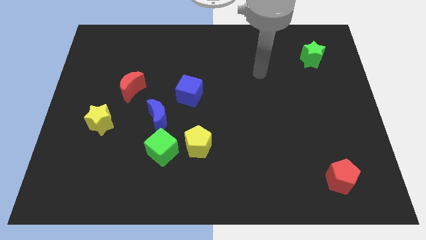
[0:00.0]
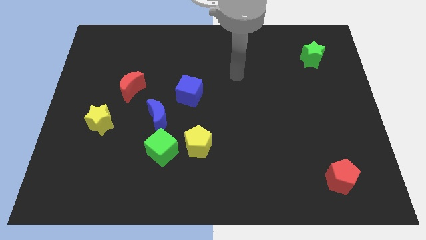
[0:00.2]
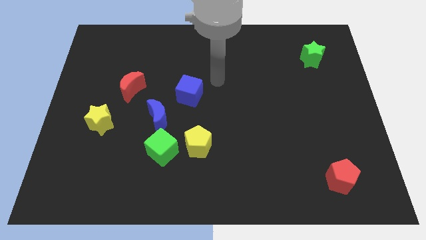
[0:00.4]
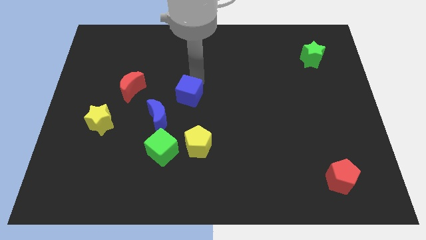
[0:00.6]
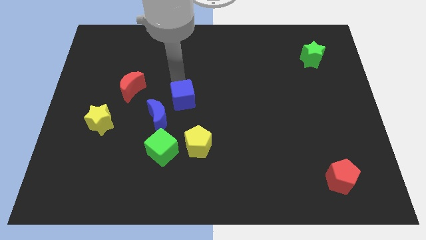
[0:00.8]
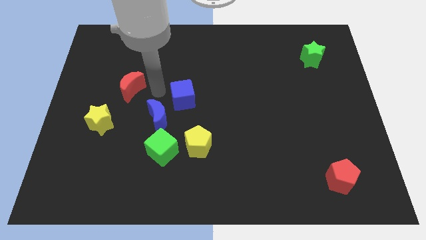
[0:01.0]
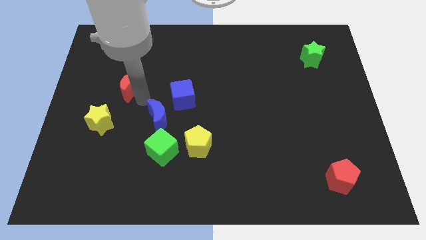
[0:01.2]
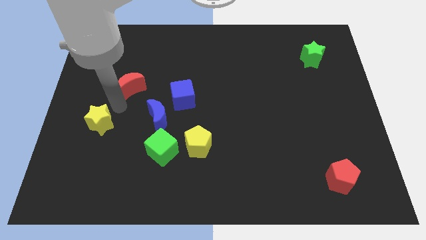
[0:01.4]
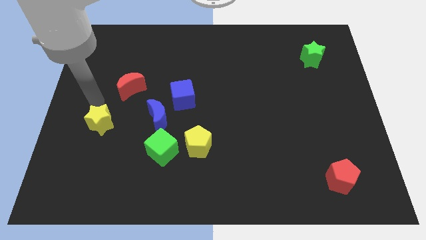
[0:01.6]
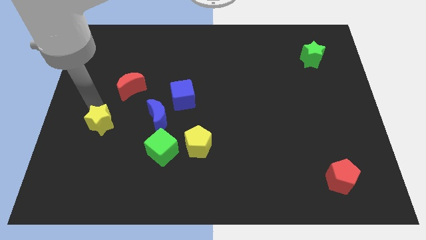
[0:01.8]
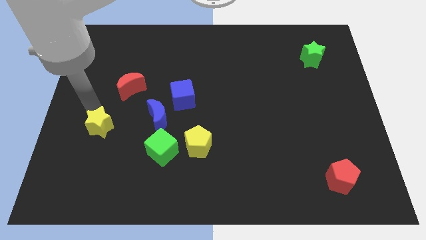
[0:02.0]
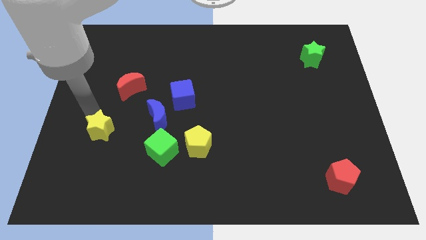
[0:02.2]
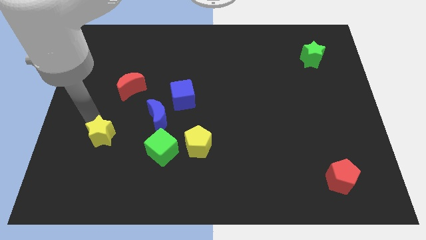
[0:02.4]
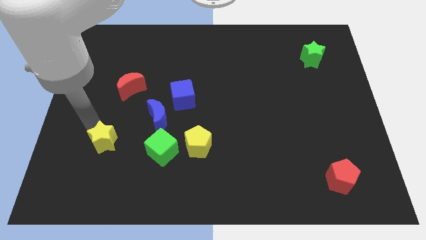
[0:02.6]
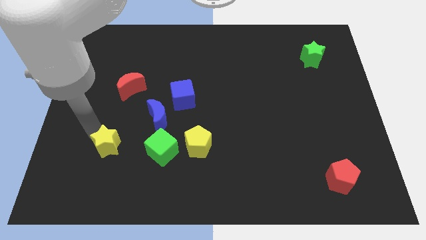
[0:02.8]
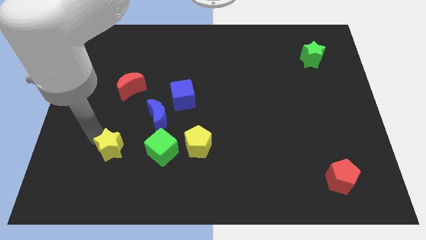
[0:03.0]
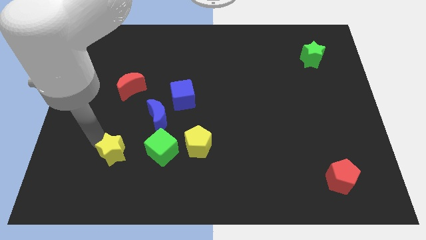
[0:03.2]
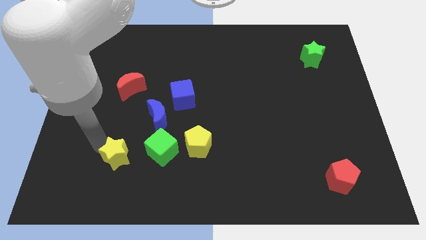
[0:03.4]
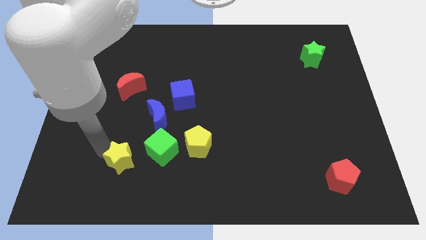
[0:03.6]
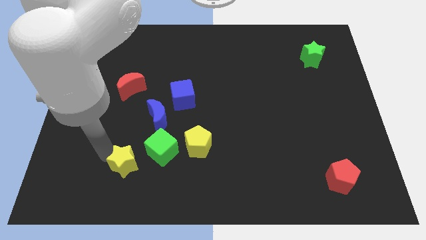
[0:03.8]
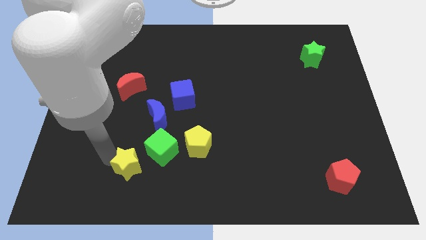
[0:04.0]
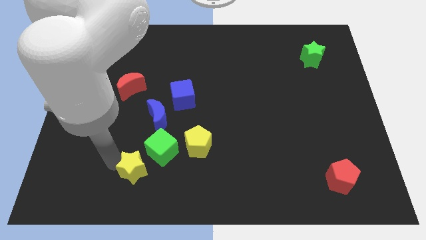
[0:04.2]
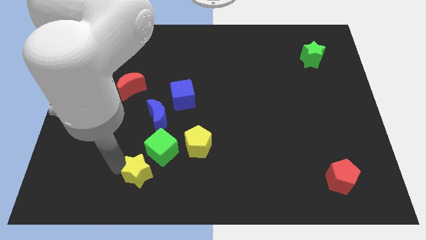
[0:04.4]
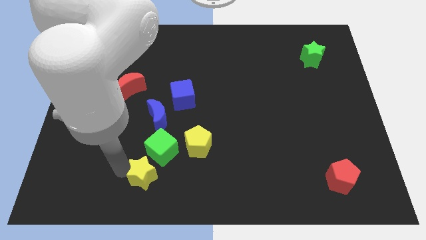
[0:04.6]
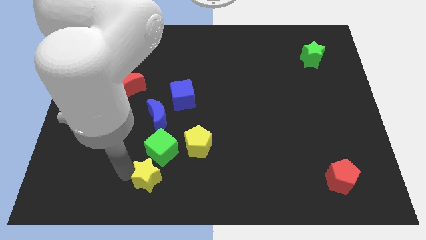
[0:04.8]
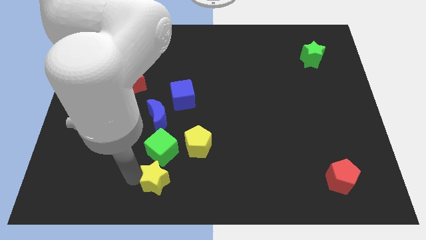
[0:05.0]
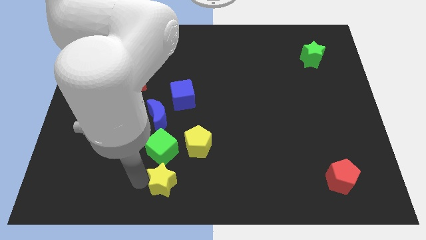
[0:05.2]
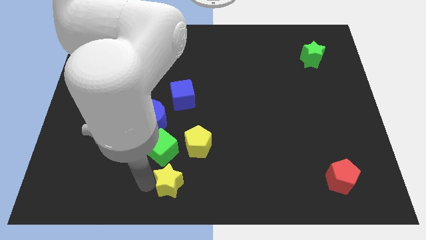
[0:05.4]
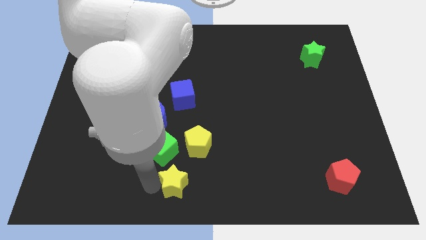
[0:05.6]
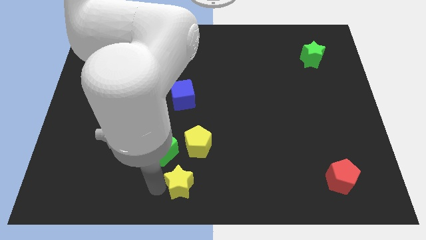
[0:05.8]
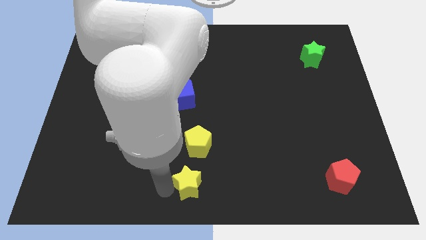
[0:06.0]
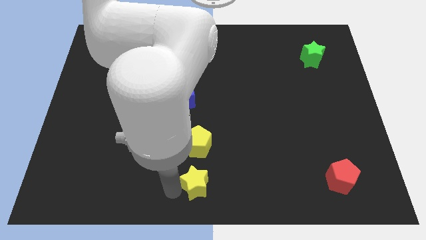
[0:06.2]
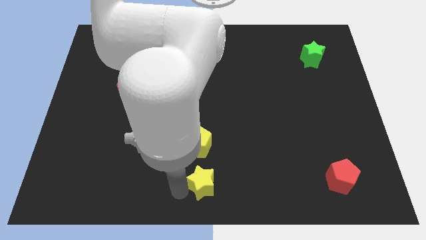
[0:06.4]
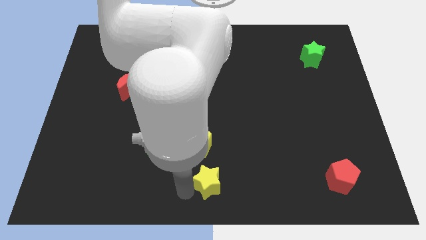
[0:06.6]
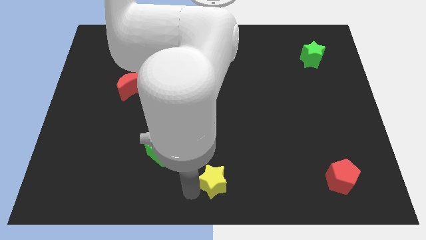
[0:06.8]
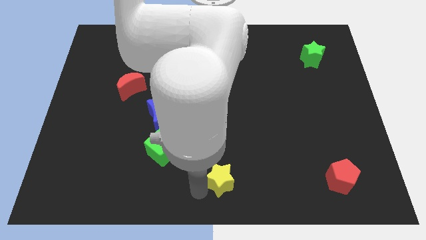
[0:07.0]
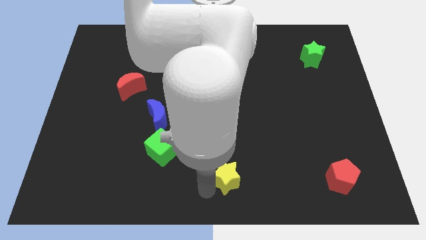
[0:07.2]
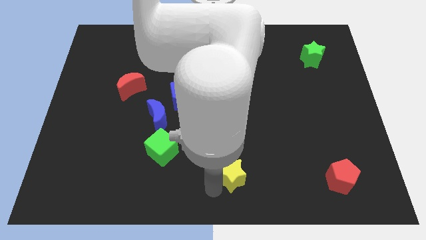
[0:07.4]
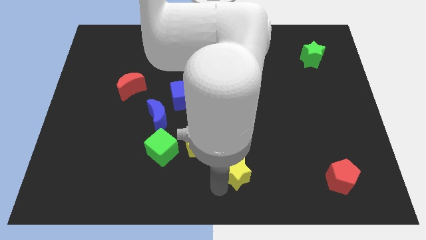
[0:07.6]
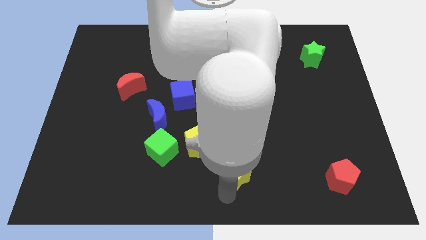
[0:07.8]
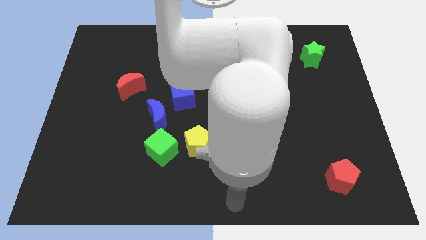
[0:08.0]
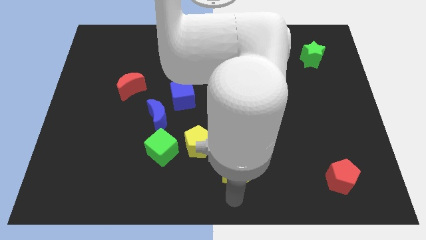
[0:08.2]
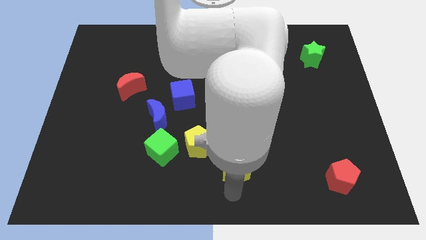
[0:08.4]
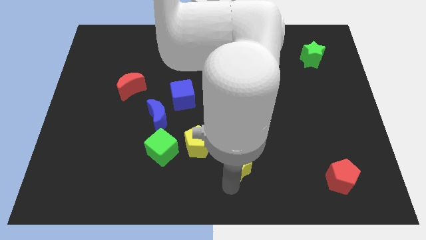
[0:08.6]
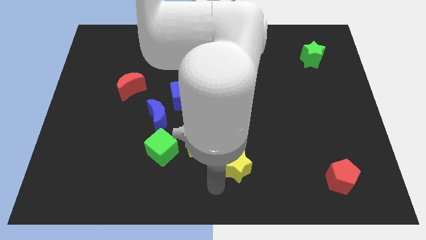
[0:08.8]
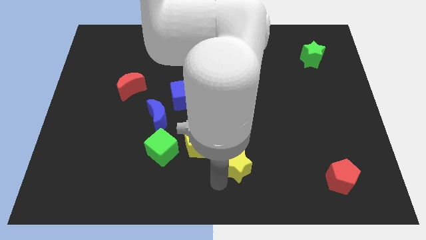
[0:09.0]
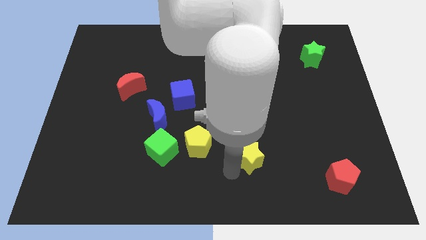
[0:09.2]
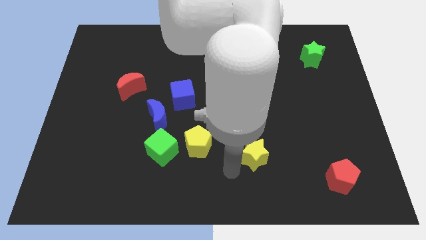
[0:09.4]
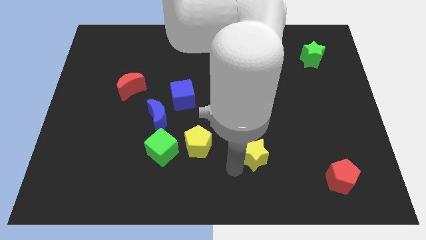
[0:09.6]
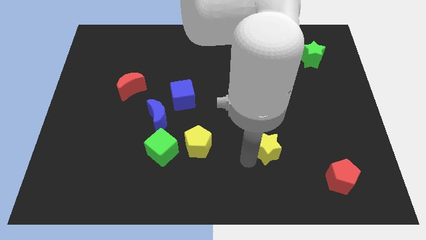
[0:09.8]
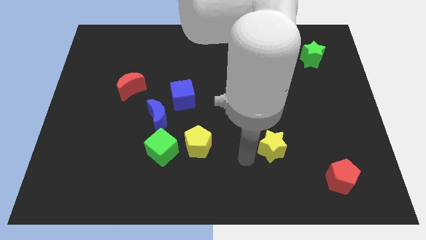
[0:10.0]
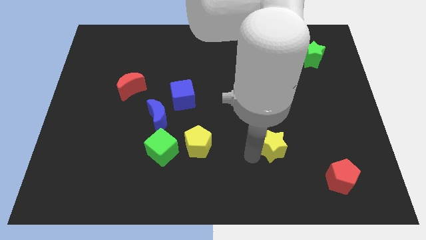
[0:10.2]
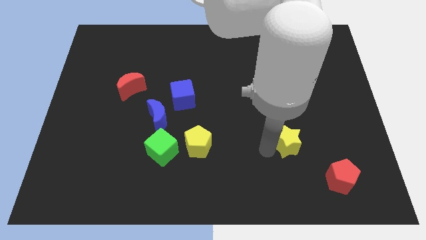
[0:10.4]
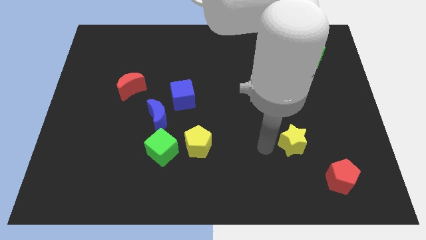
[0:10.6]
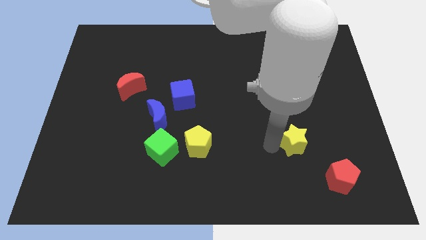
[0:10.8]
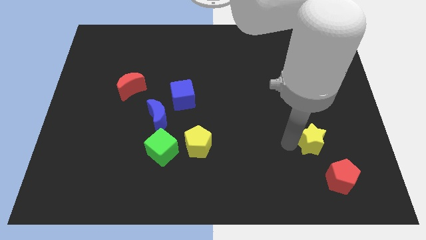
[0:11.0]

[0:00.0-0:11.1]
move the yellow star above the red pentagon
